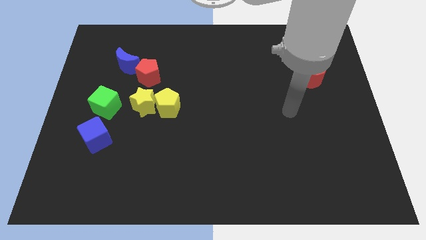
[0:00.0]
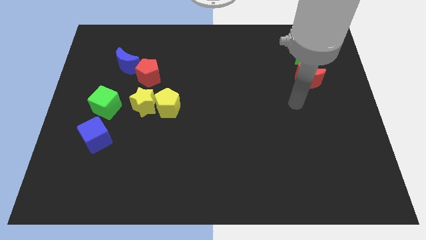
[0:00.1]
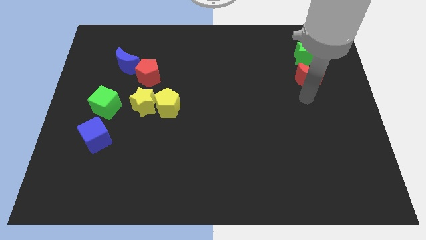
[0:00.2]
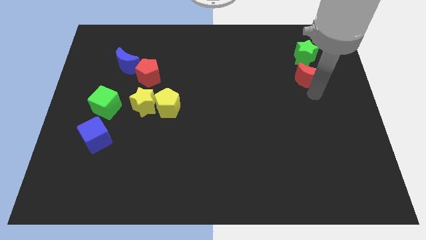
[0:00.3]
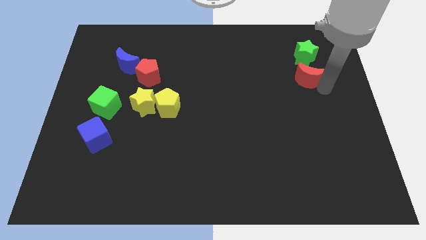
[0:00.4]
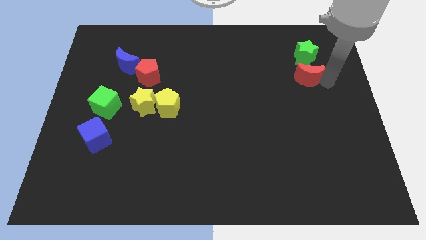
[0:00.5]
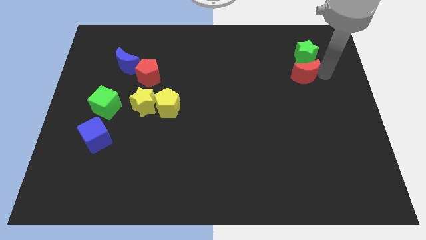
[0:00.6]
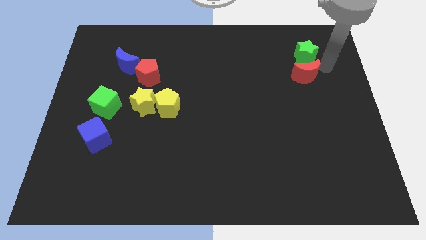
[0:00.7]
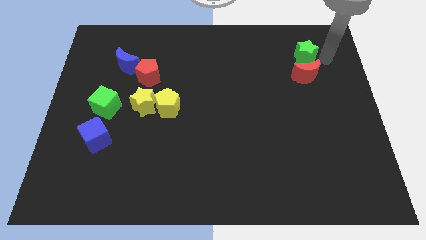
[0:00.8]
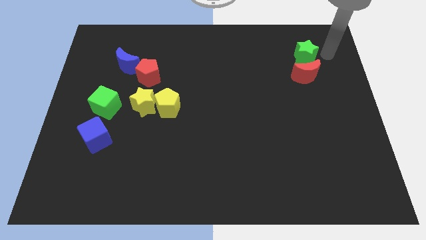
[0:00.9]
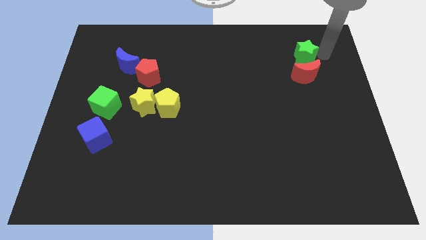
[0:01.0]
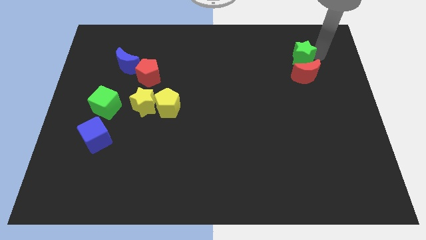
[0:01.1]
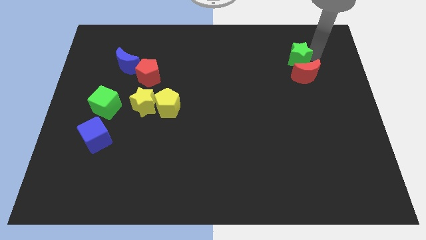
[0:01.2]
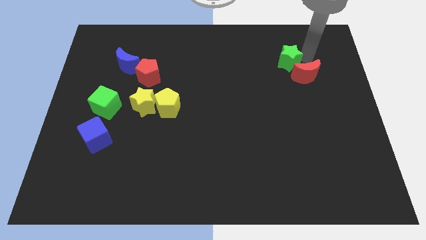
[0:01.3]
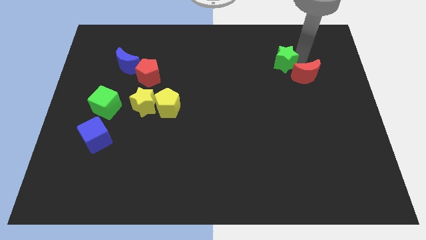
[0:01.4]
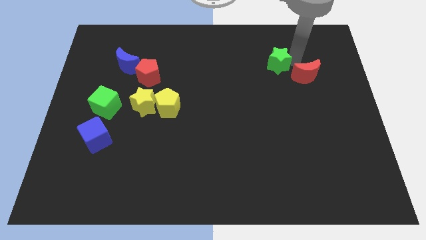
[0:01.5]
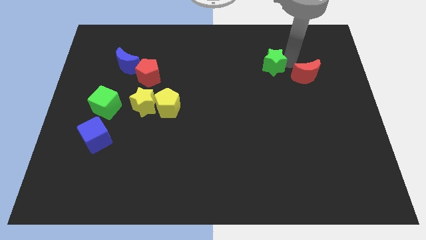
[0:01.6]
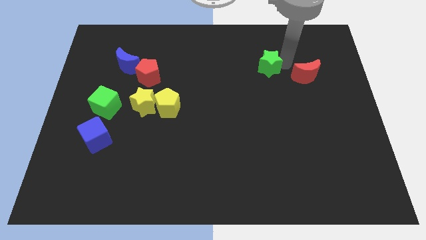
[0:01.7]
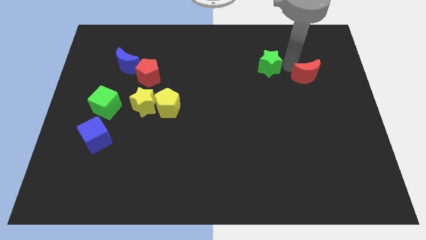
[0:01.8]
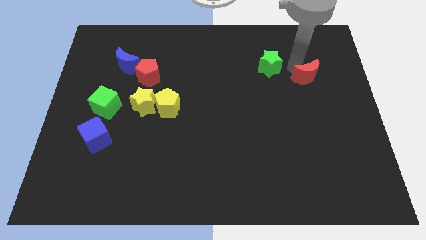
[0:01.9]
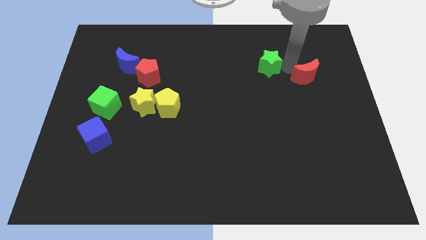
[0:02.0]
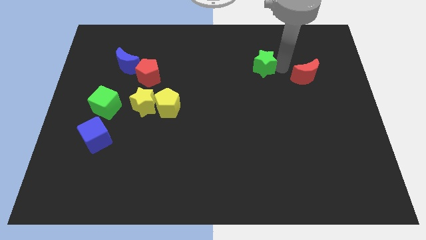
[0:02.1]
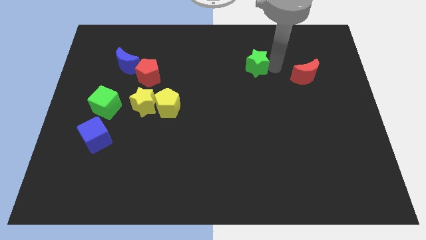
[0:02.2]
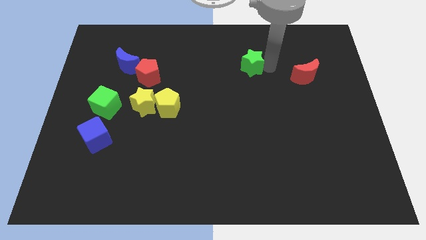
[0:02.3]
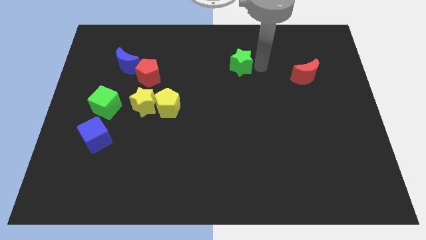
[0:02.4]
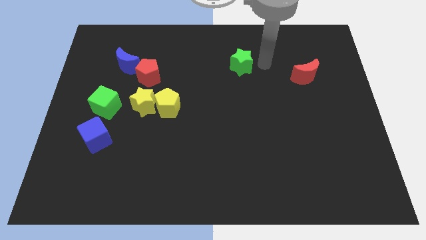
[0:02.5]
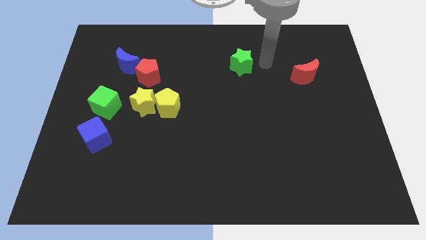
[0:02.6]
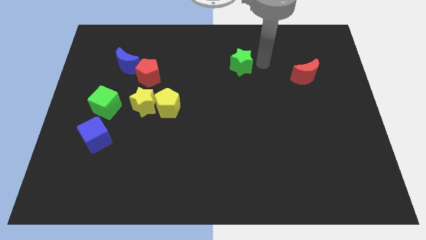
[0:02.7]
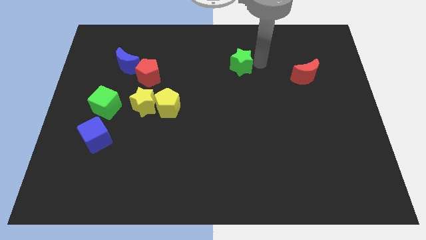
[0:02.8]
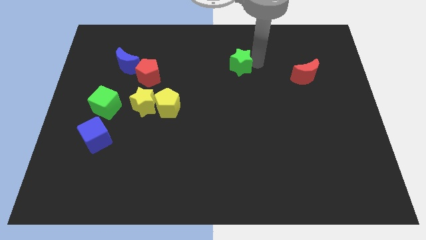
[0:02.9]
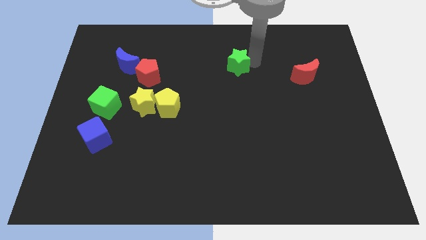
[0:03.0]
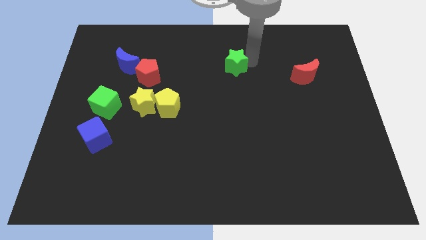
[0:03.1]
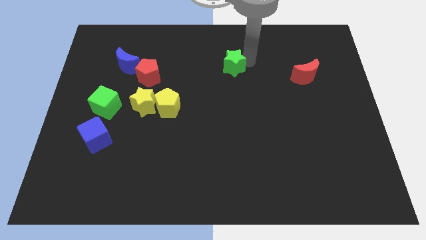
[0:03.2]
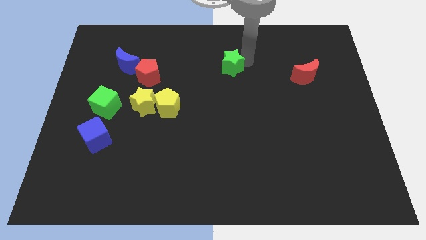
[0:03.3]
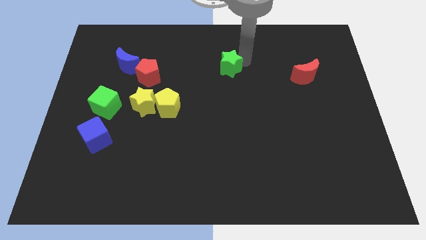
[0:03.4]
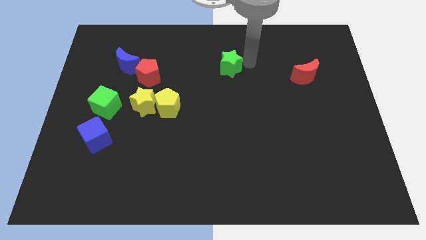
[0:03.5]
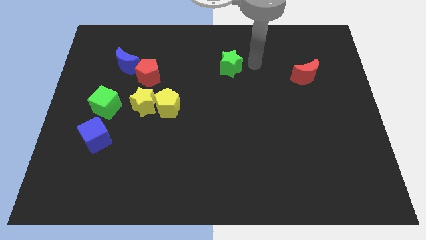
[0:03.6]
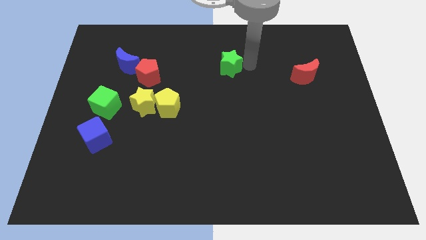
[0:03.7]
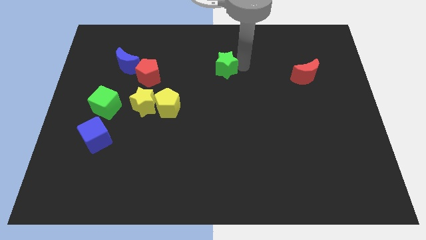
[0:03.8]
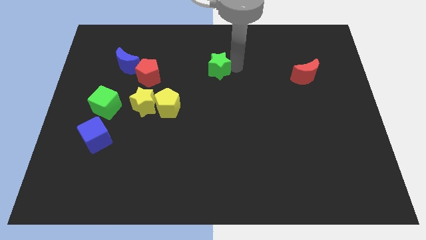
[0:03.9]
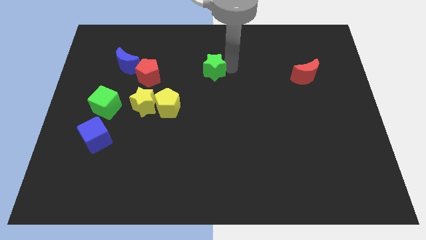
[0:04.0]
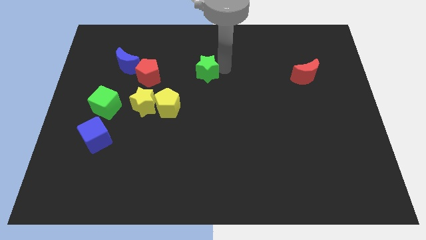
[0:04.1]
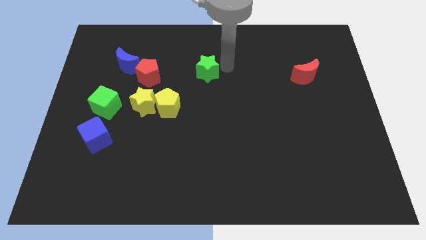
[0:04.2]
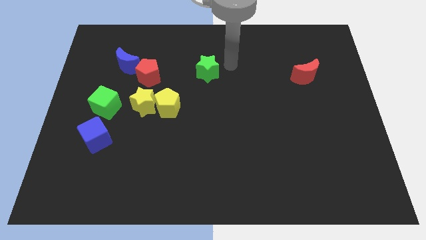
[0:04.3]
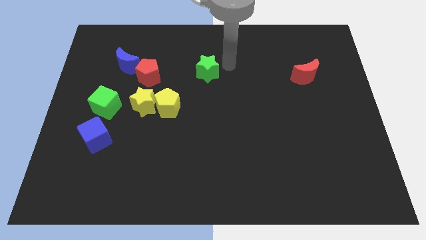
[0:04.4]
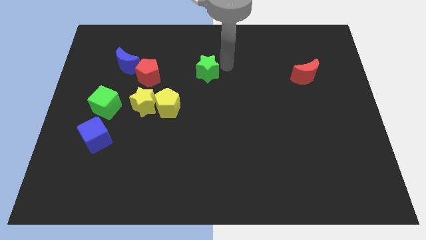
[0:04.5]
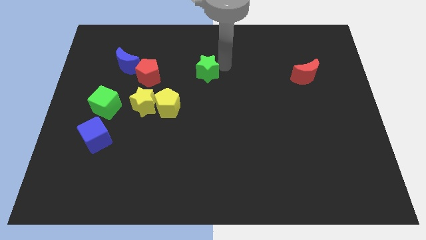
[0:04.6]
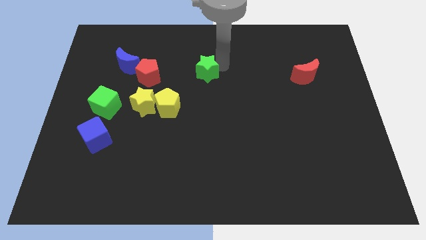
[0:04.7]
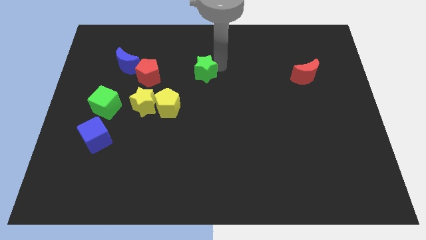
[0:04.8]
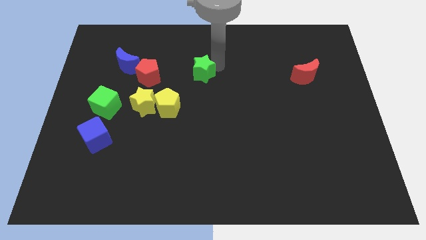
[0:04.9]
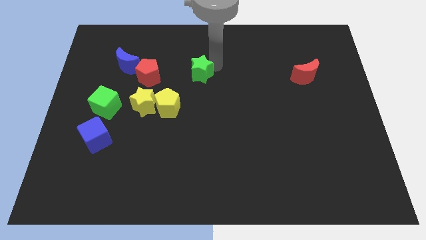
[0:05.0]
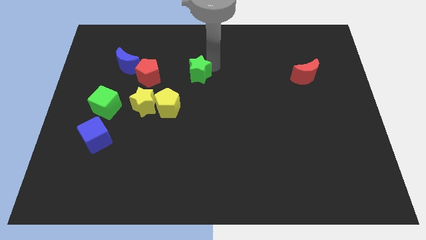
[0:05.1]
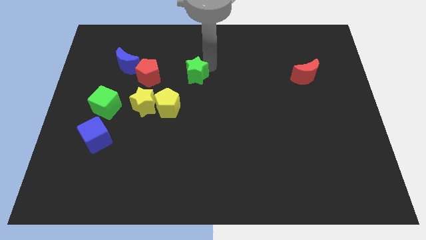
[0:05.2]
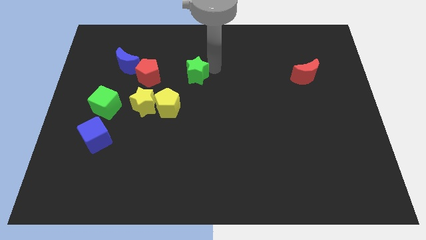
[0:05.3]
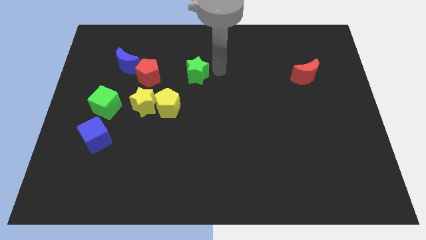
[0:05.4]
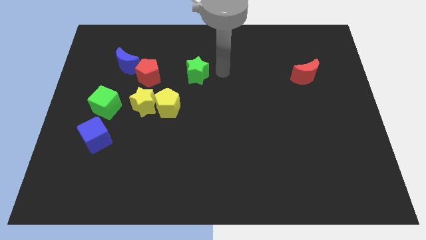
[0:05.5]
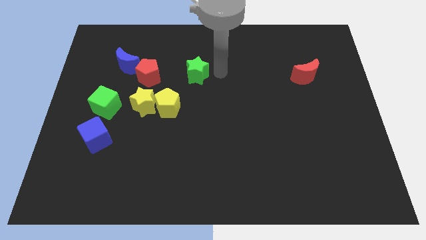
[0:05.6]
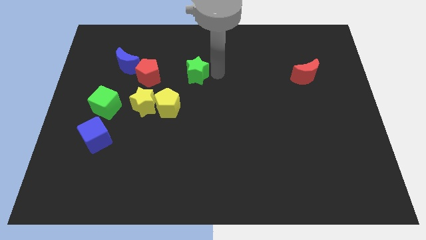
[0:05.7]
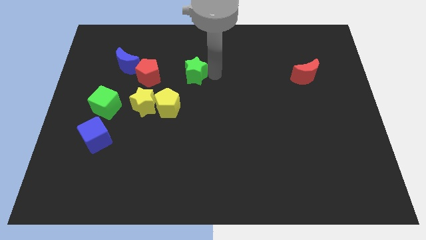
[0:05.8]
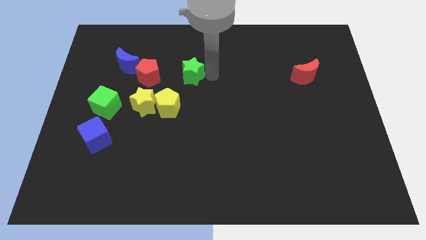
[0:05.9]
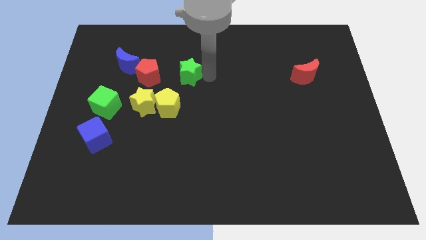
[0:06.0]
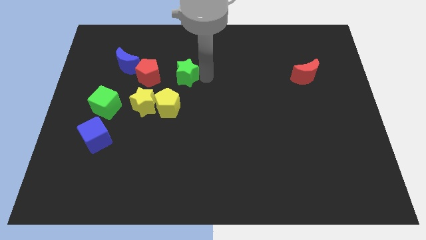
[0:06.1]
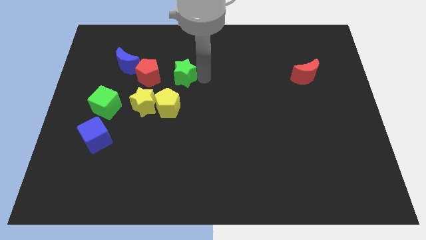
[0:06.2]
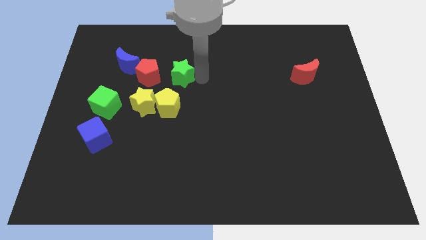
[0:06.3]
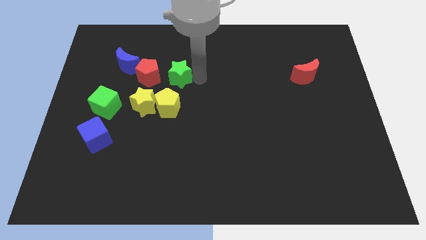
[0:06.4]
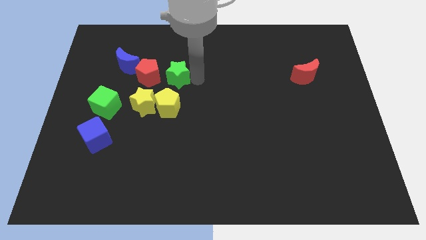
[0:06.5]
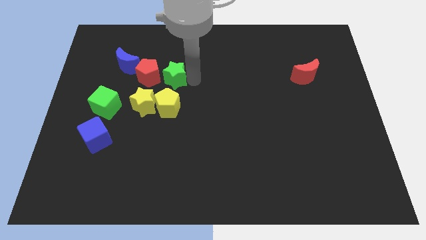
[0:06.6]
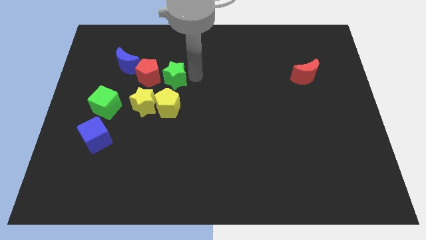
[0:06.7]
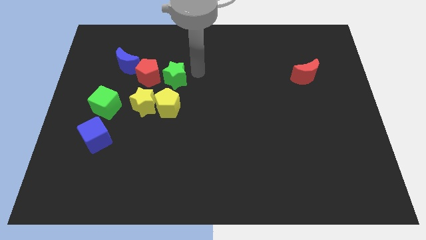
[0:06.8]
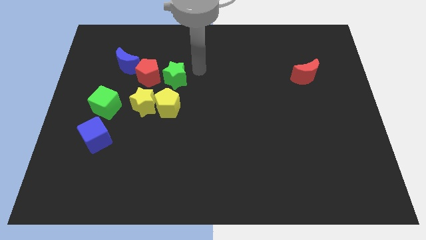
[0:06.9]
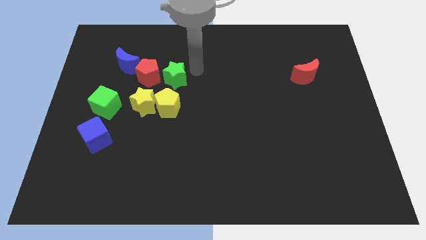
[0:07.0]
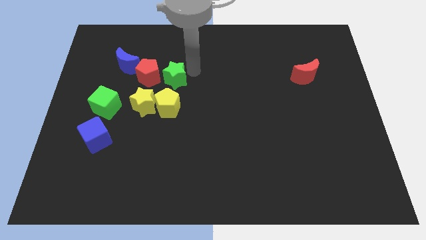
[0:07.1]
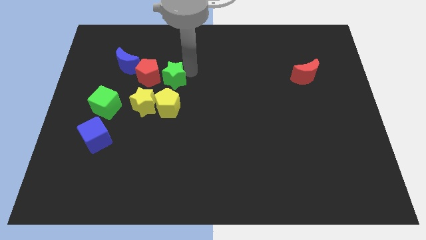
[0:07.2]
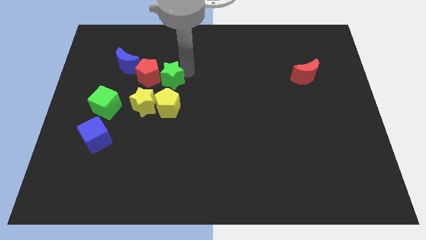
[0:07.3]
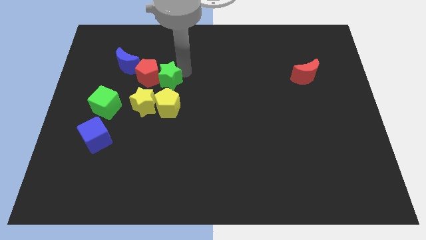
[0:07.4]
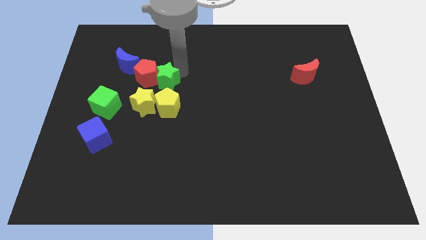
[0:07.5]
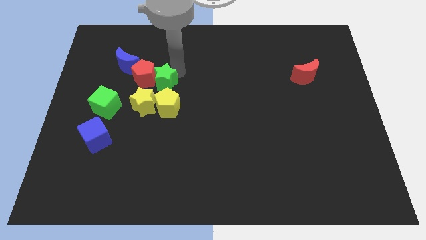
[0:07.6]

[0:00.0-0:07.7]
move the green star to the top left of the yellow pentagon
